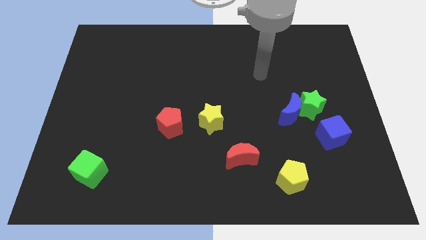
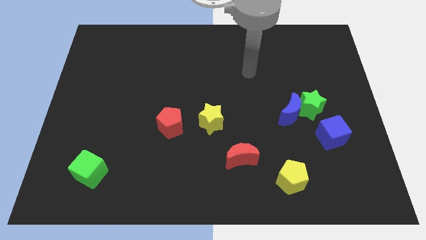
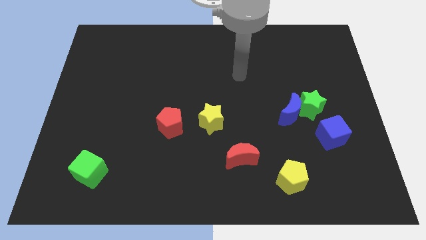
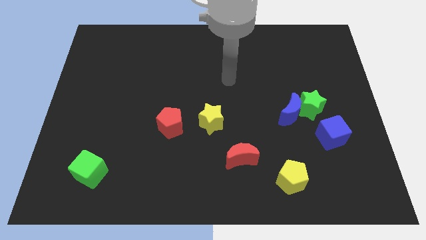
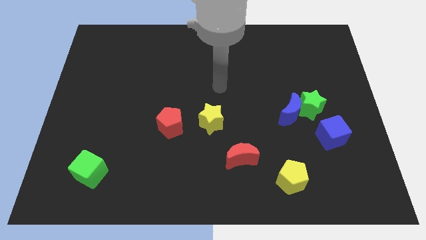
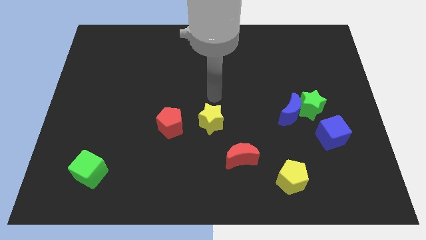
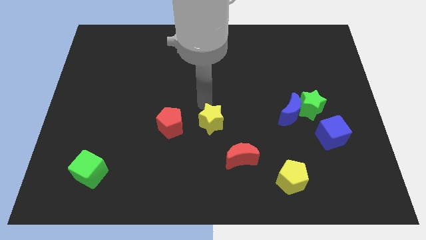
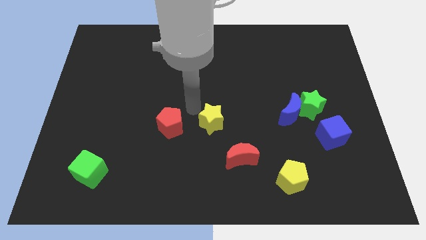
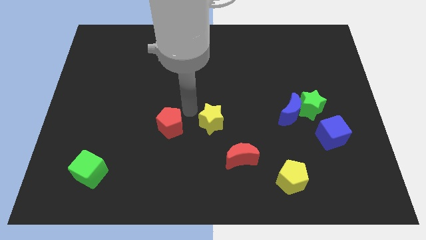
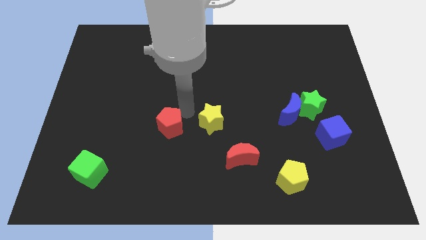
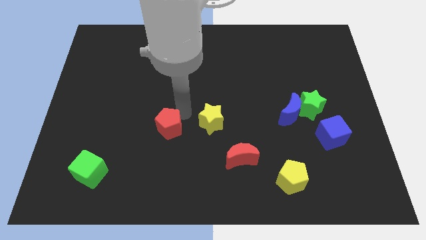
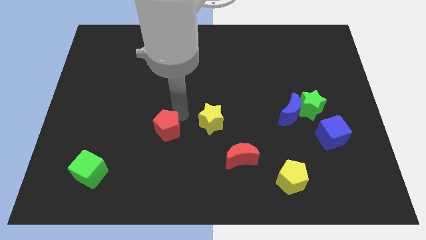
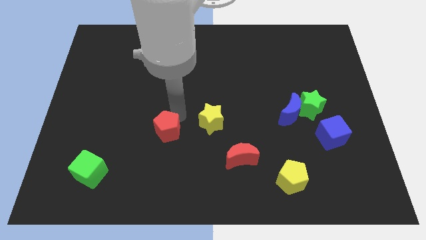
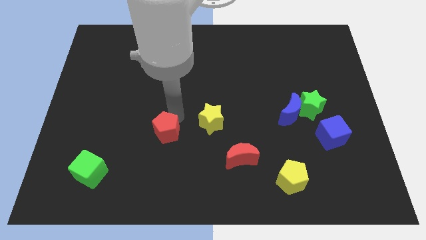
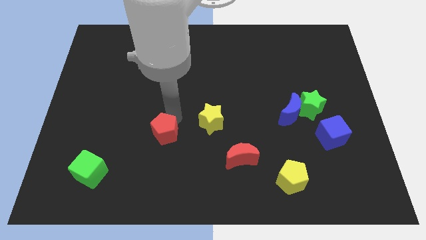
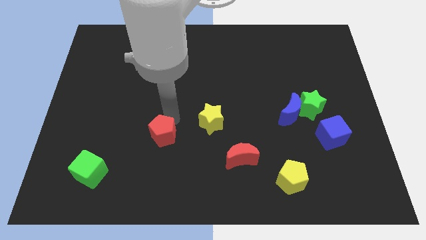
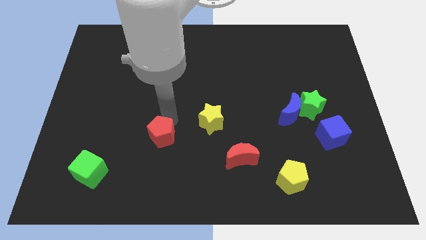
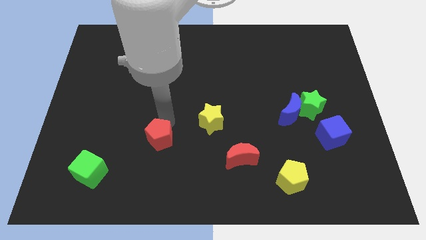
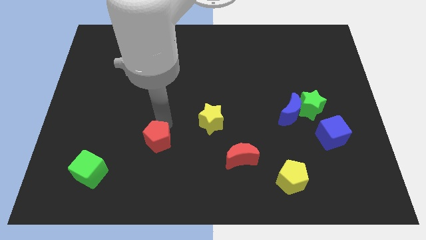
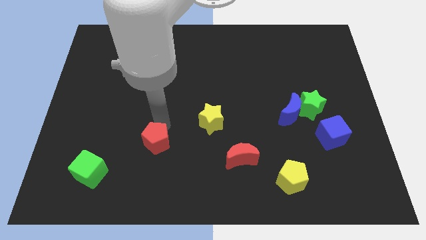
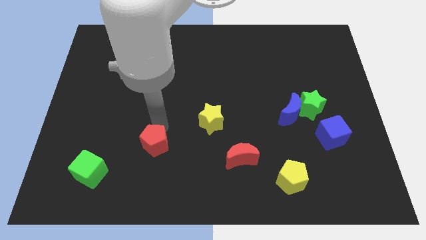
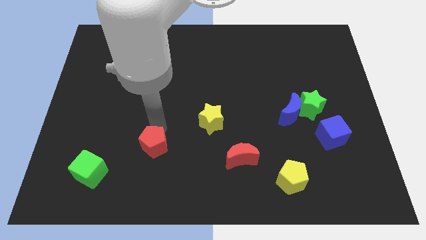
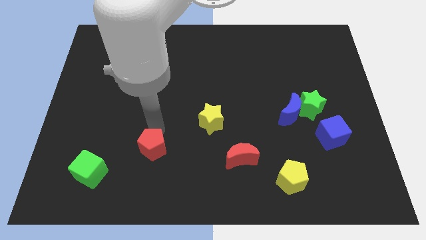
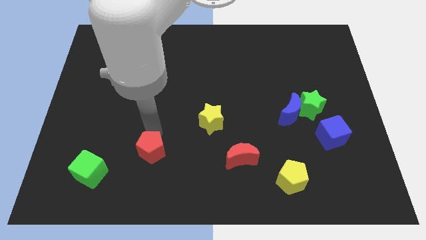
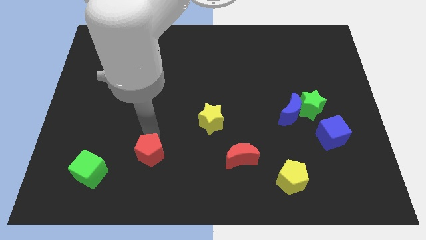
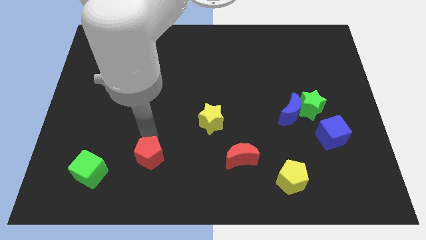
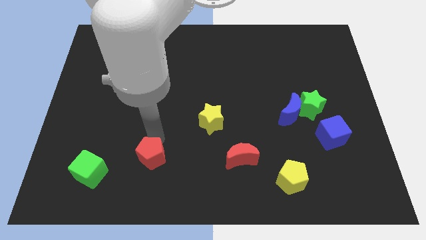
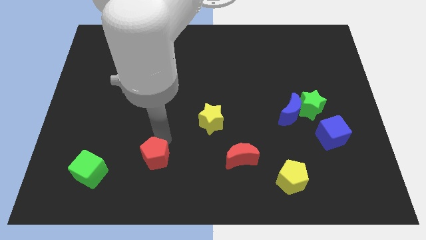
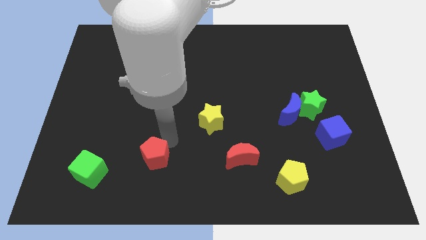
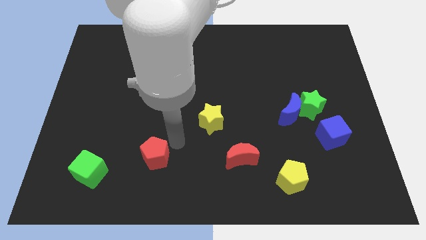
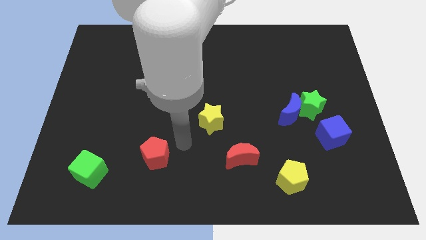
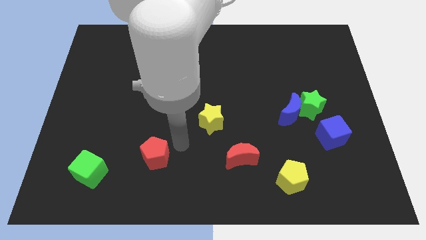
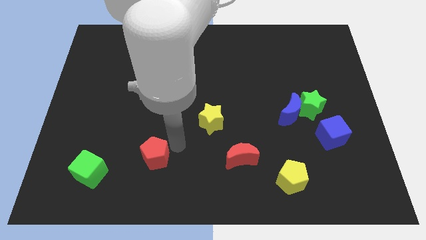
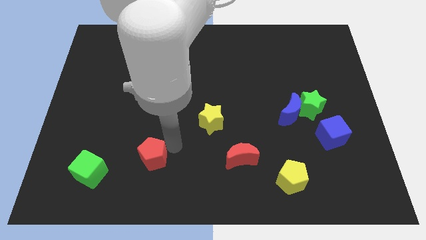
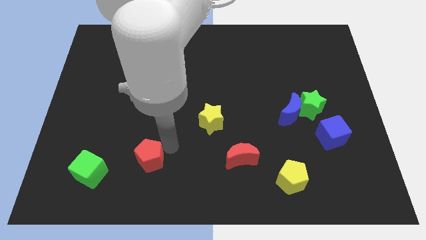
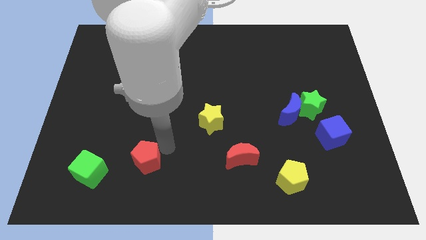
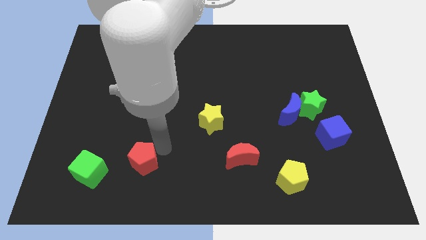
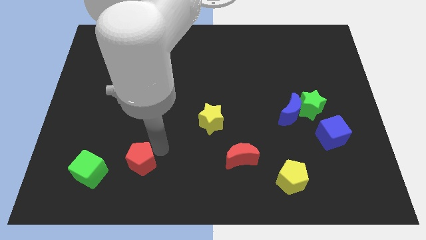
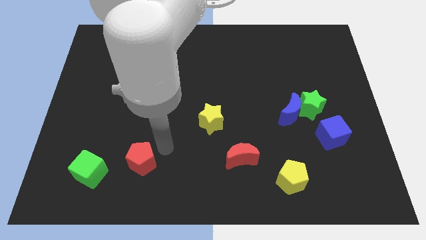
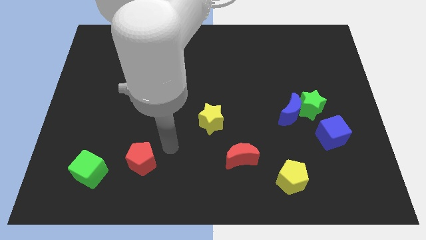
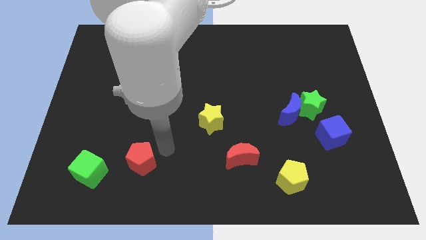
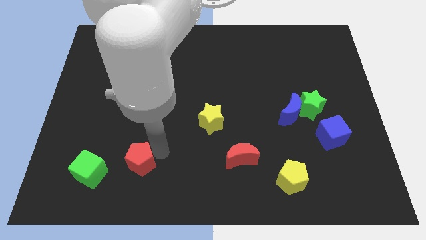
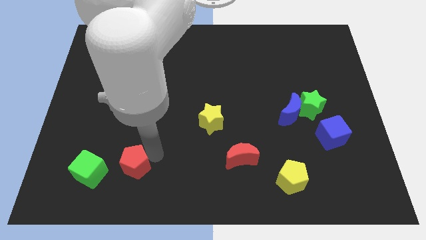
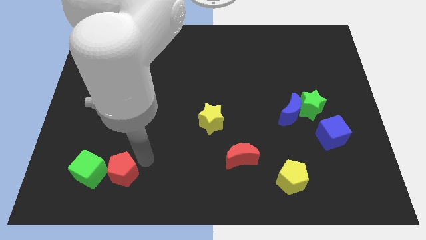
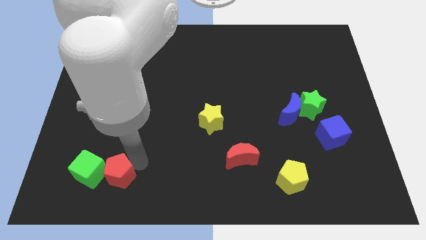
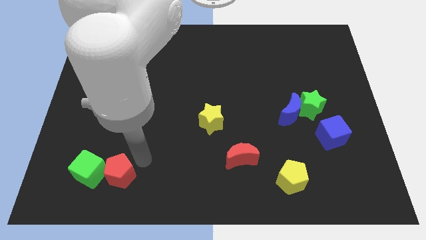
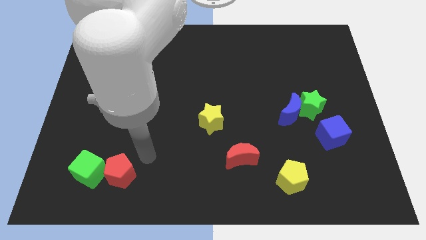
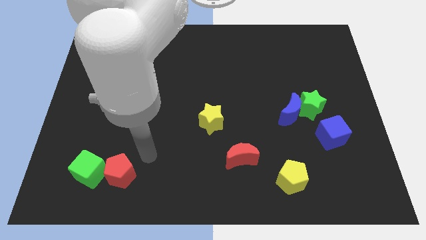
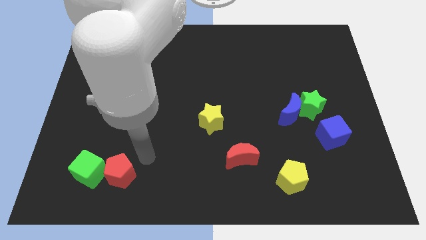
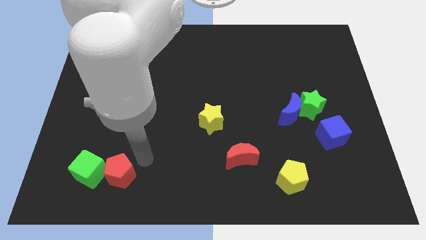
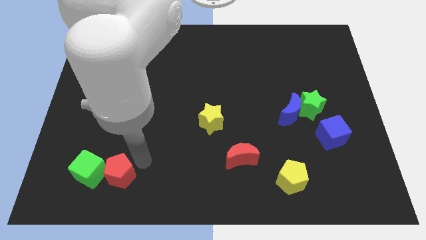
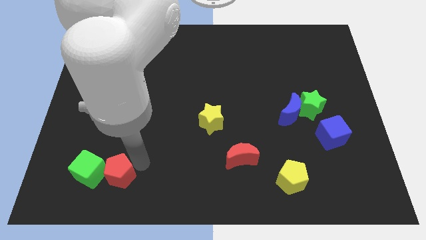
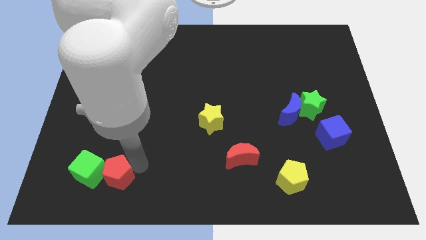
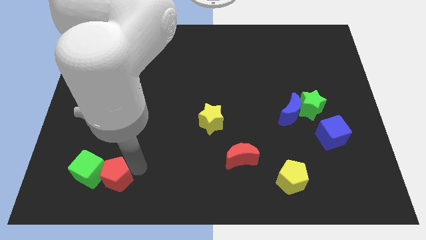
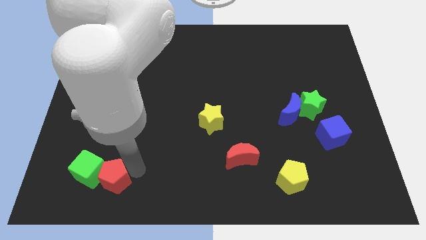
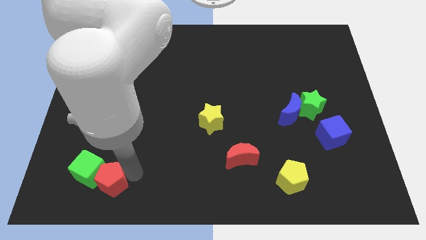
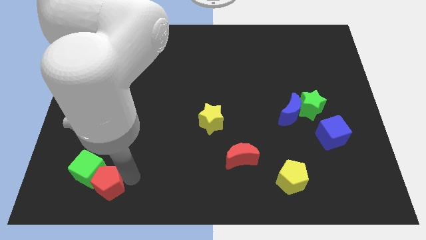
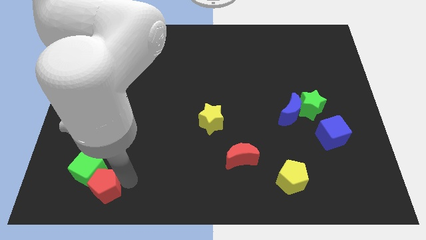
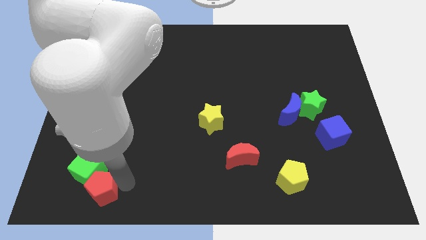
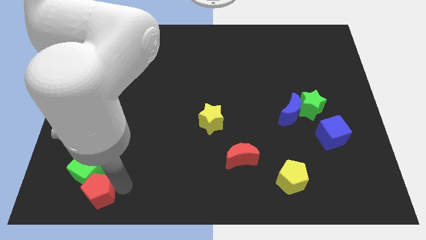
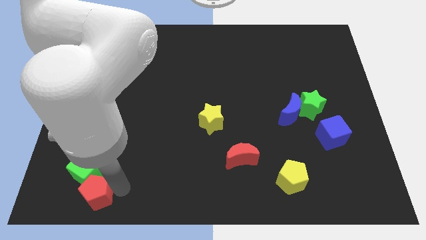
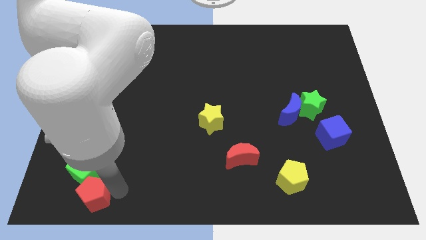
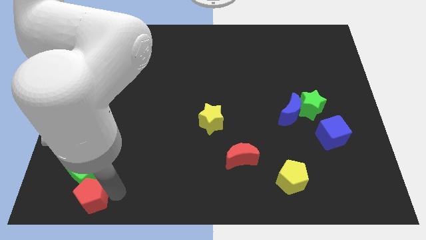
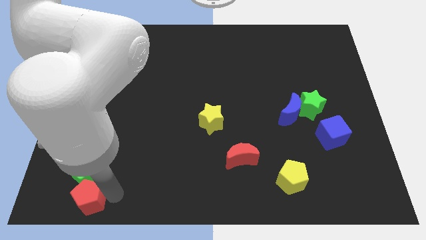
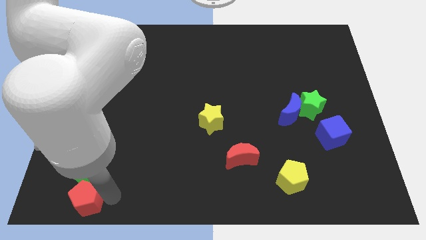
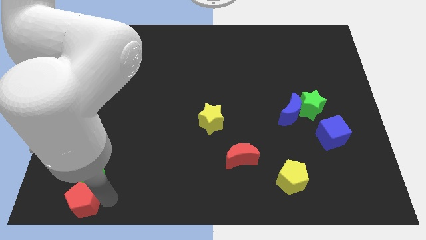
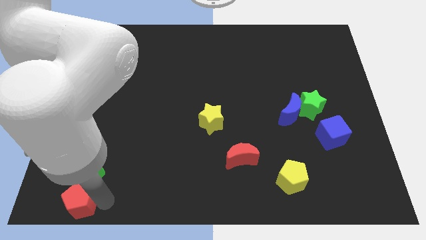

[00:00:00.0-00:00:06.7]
push the red pentagon to the lower left corner

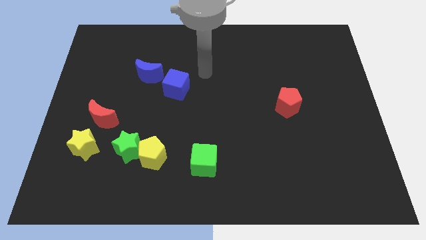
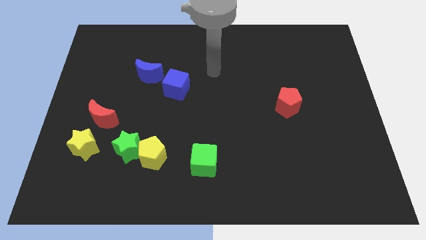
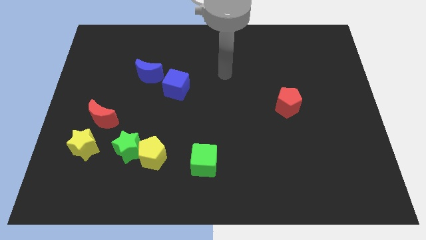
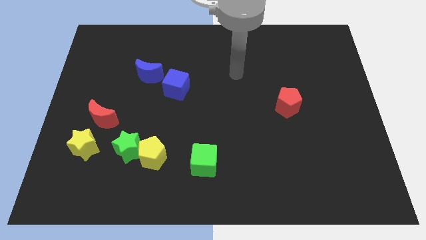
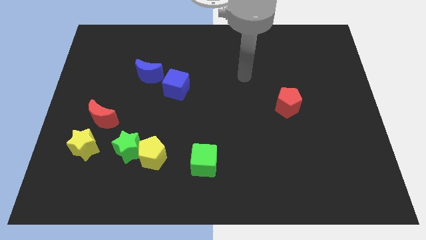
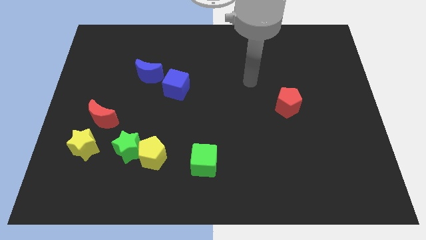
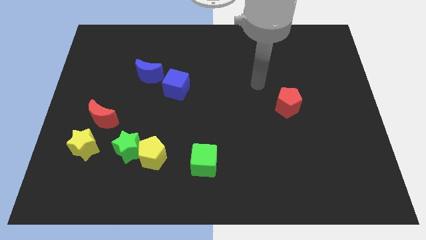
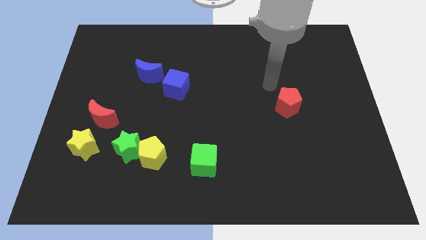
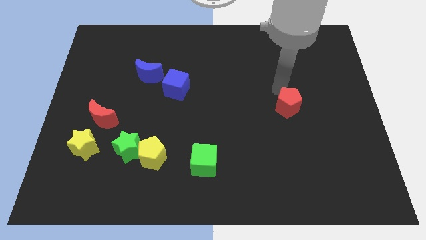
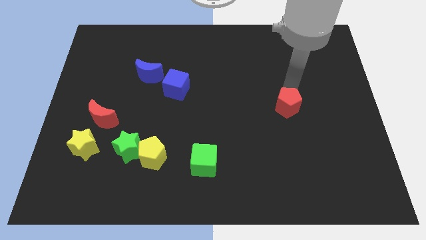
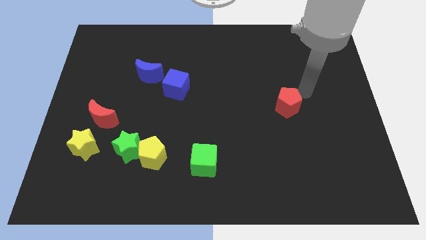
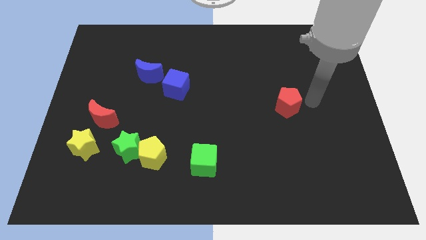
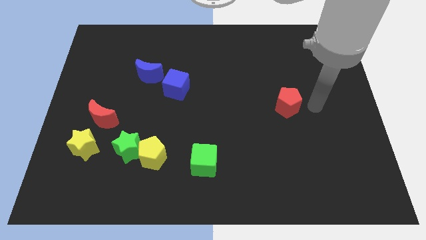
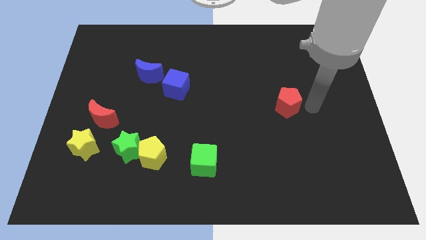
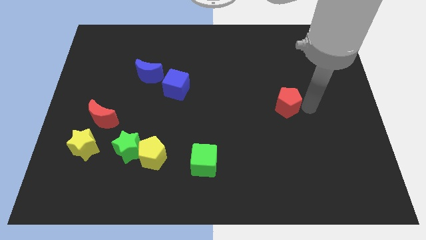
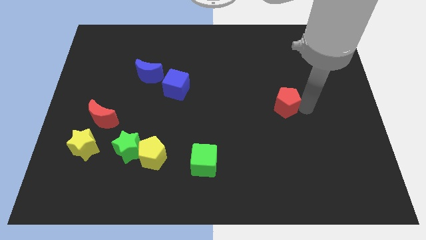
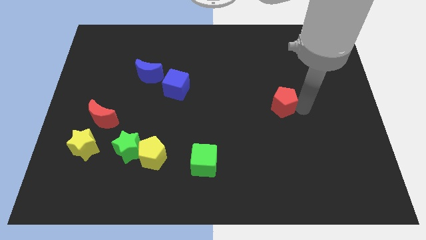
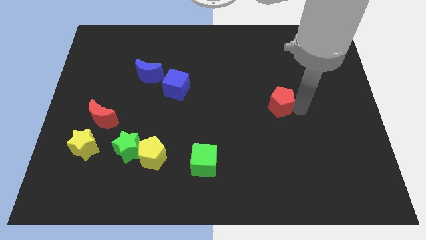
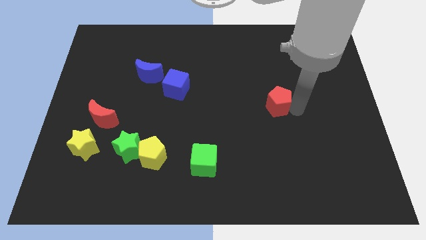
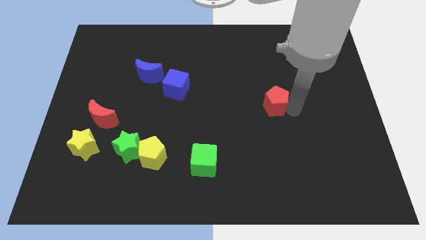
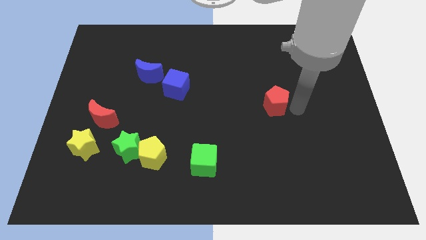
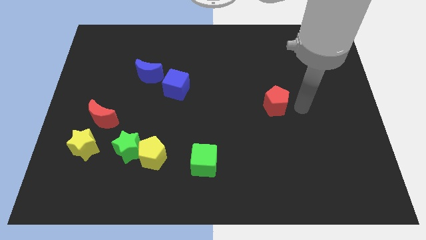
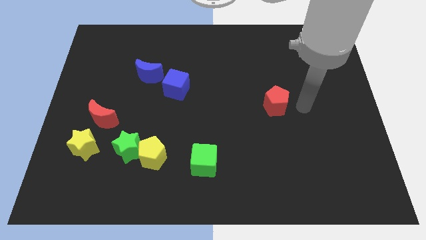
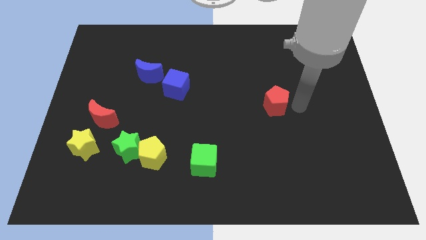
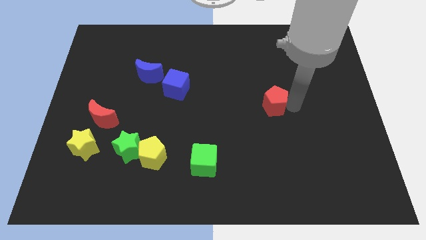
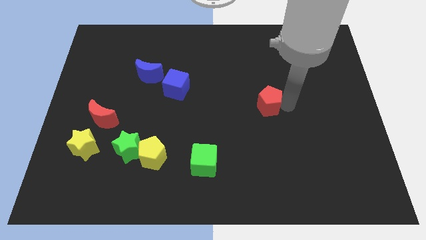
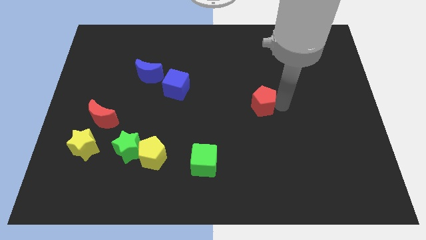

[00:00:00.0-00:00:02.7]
push the red pentagon to the center of the board
